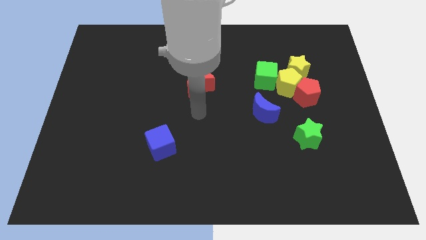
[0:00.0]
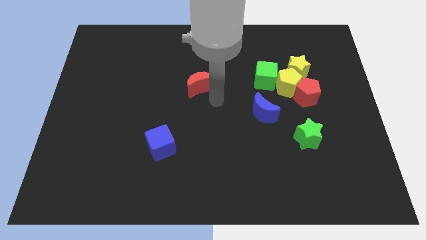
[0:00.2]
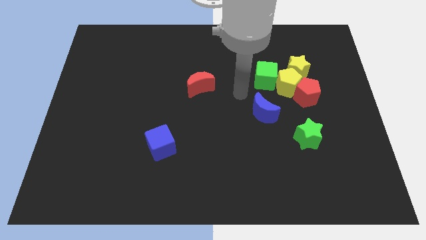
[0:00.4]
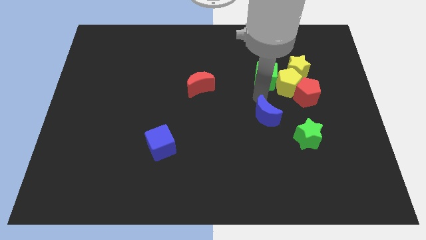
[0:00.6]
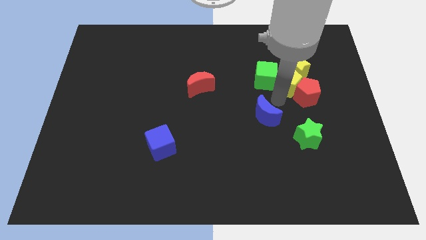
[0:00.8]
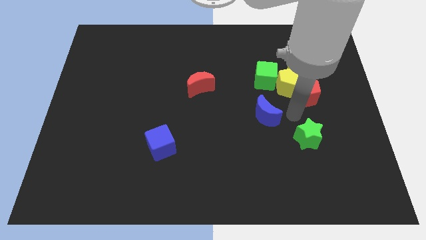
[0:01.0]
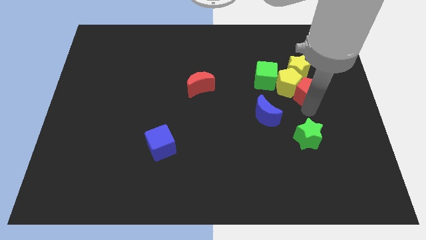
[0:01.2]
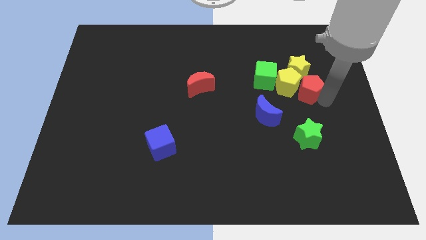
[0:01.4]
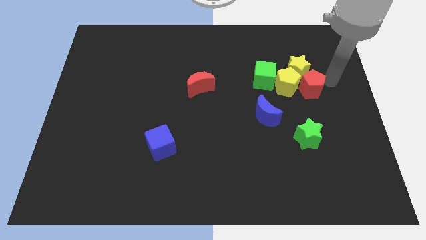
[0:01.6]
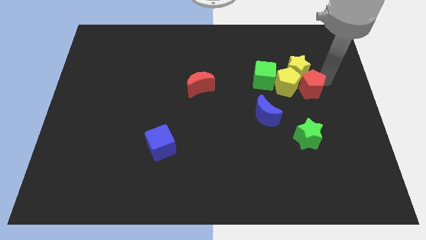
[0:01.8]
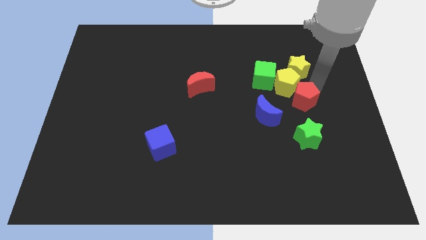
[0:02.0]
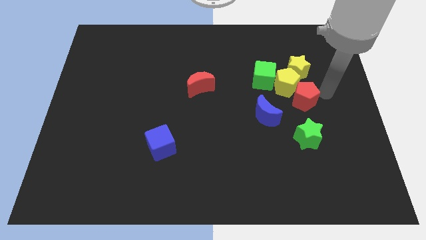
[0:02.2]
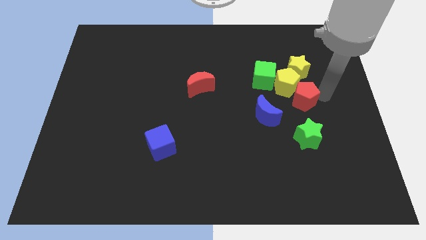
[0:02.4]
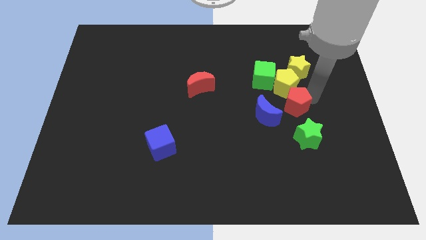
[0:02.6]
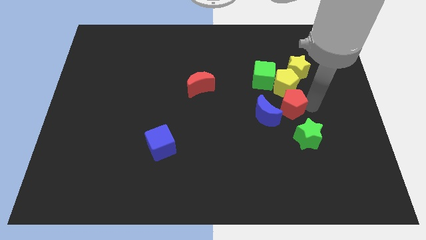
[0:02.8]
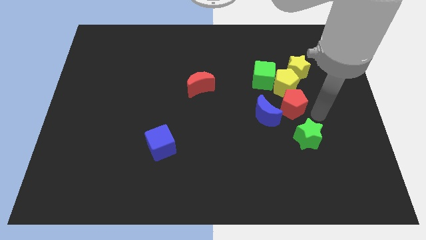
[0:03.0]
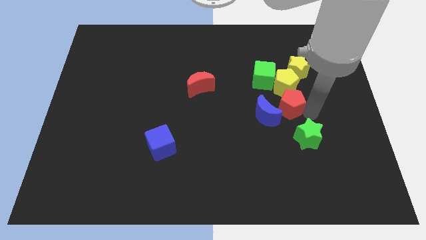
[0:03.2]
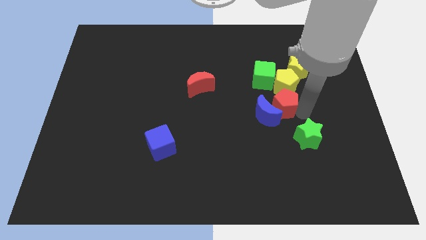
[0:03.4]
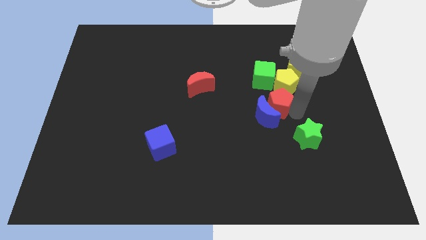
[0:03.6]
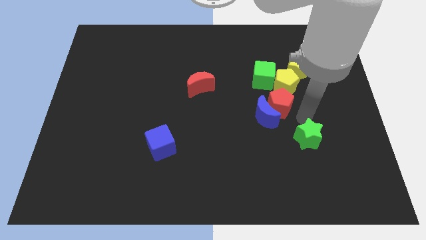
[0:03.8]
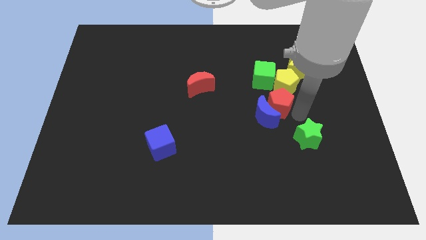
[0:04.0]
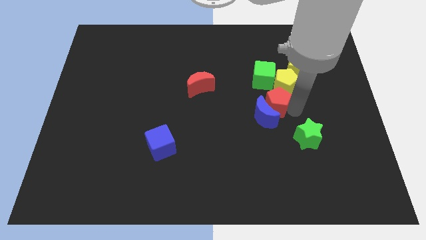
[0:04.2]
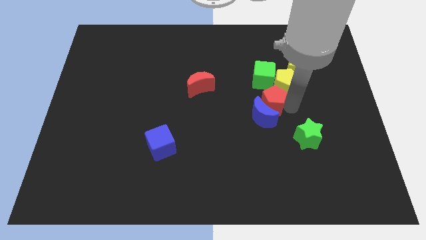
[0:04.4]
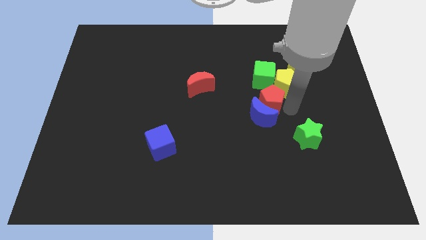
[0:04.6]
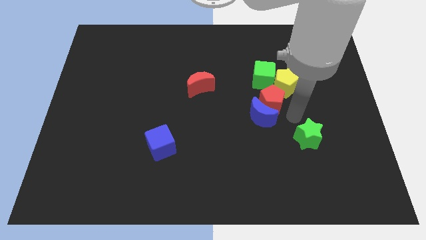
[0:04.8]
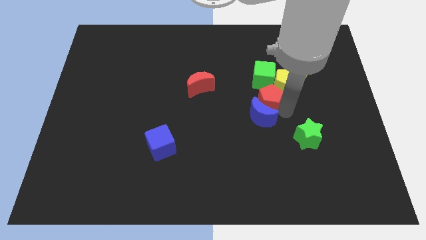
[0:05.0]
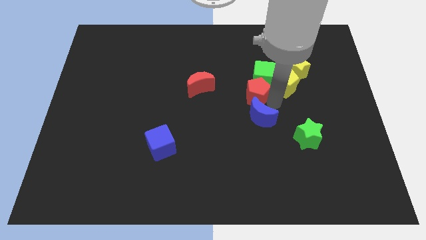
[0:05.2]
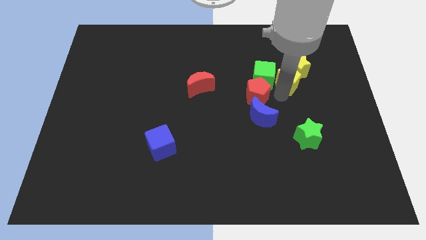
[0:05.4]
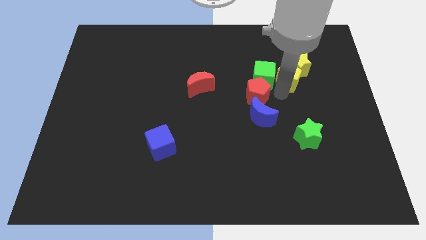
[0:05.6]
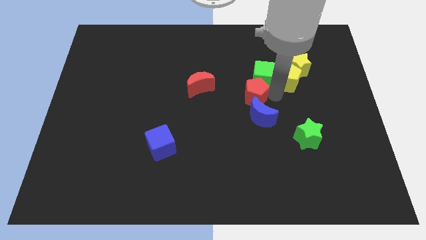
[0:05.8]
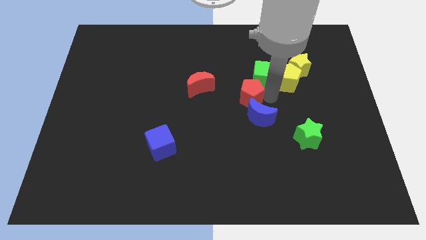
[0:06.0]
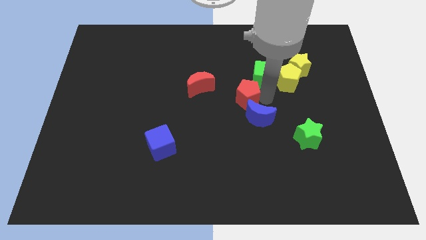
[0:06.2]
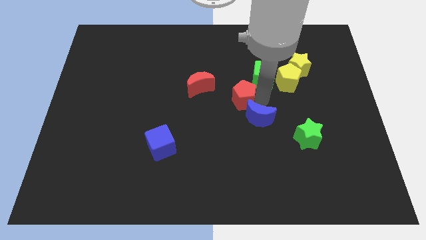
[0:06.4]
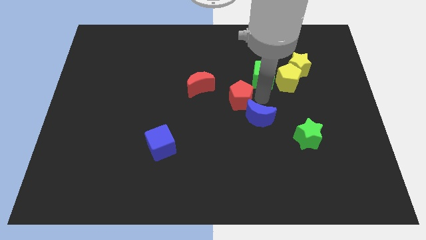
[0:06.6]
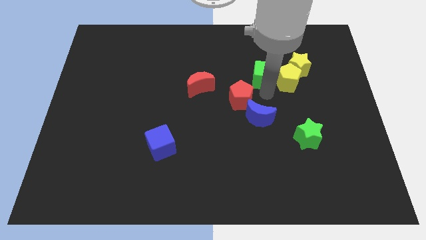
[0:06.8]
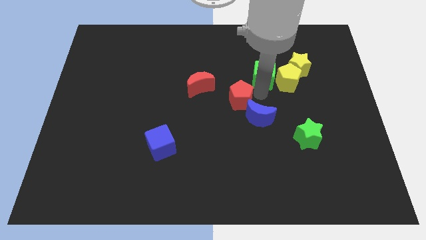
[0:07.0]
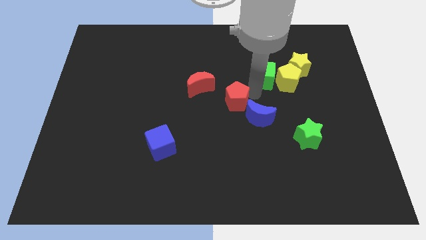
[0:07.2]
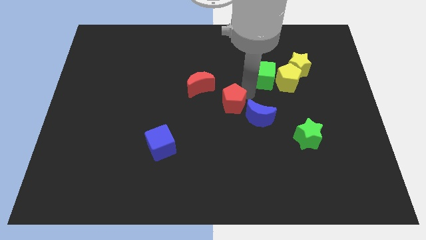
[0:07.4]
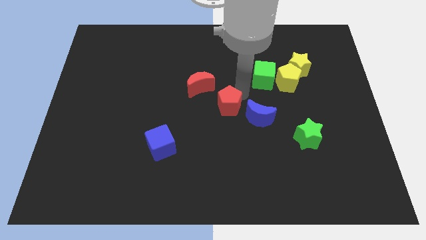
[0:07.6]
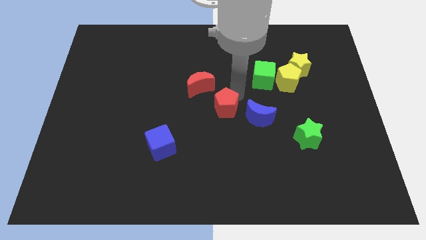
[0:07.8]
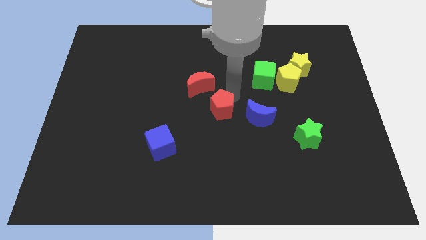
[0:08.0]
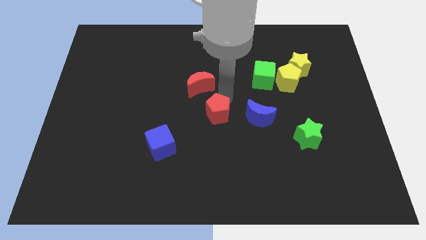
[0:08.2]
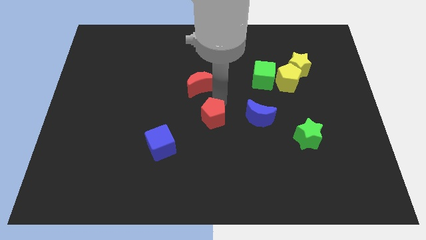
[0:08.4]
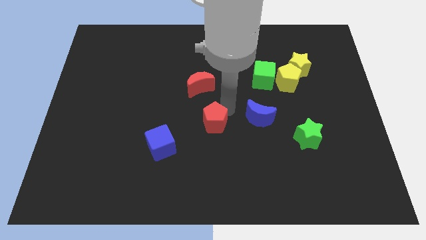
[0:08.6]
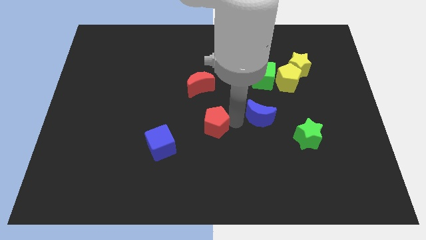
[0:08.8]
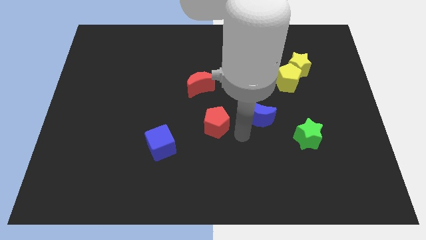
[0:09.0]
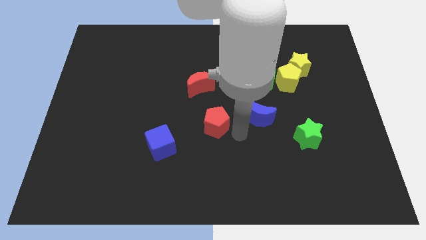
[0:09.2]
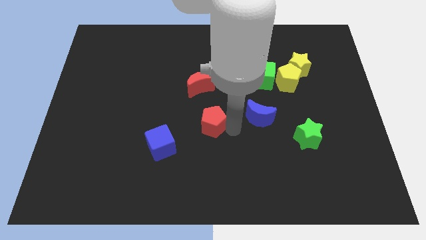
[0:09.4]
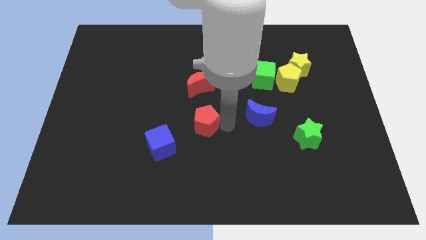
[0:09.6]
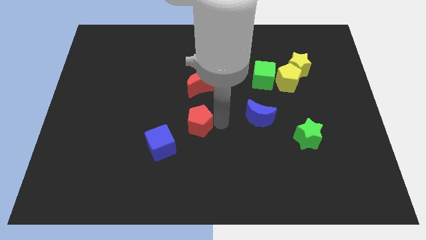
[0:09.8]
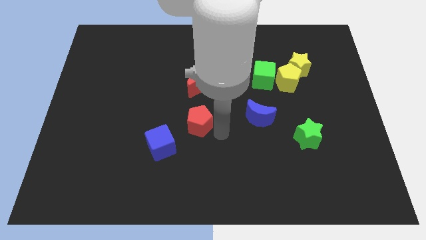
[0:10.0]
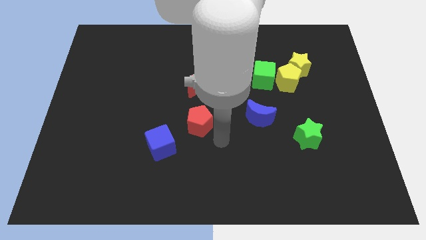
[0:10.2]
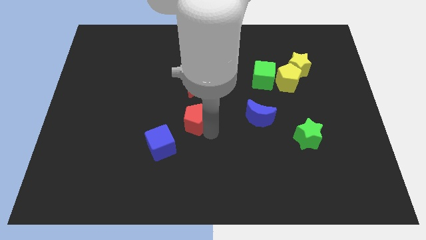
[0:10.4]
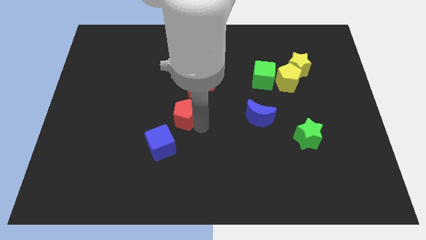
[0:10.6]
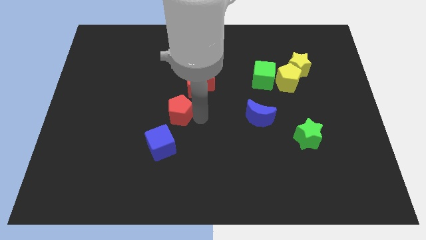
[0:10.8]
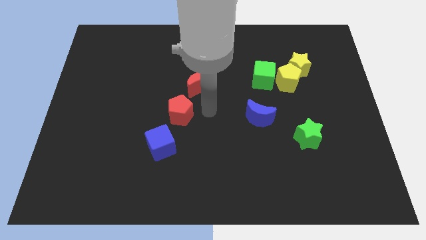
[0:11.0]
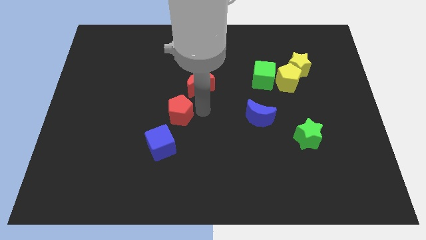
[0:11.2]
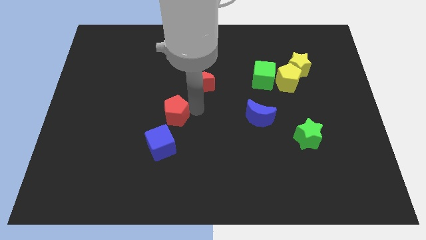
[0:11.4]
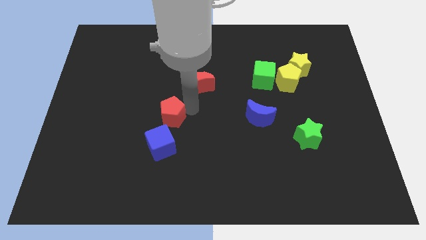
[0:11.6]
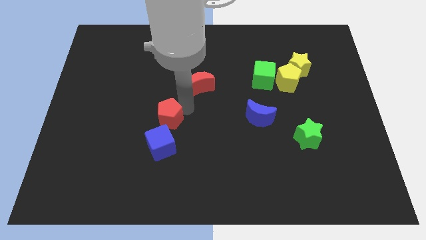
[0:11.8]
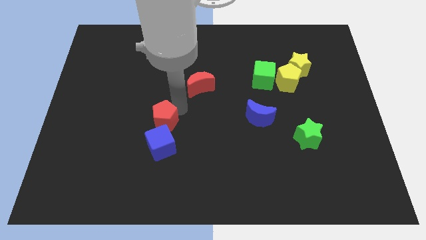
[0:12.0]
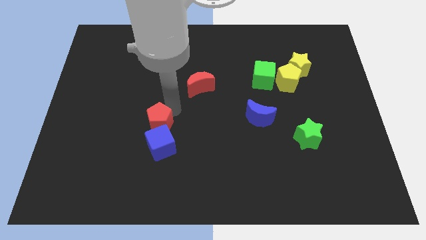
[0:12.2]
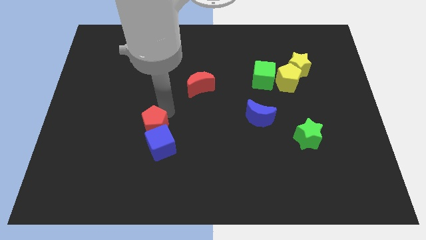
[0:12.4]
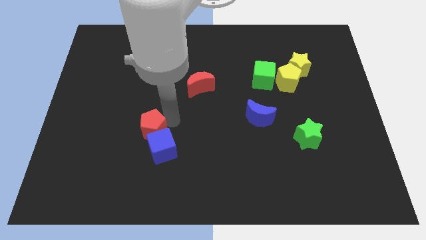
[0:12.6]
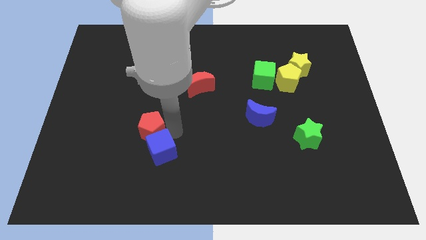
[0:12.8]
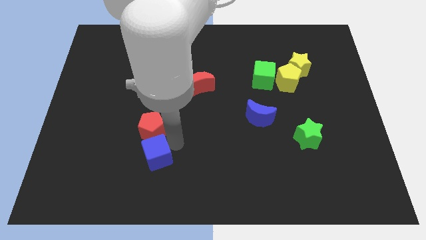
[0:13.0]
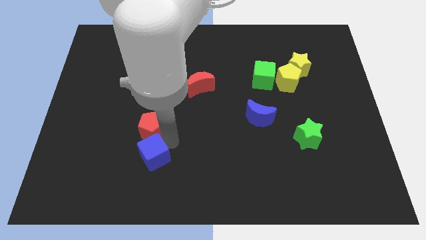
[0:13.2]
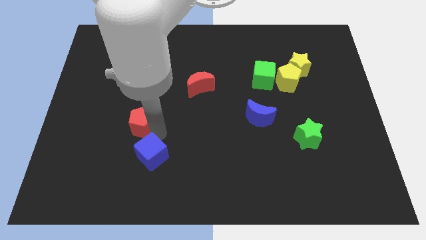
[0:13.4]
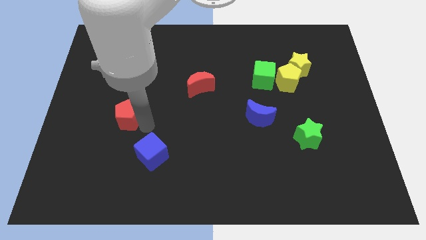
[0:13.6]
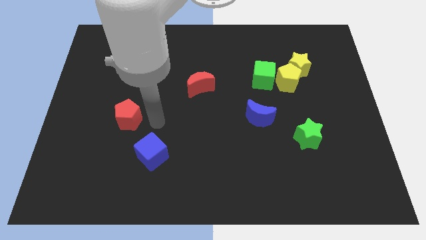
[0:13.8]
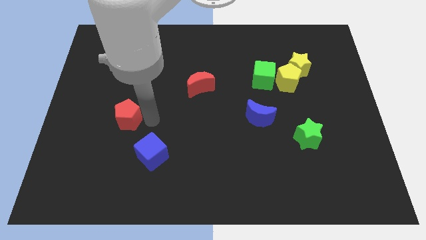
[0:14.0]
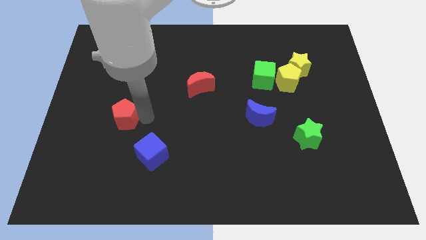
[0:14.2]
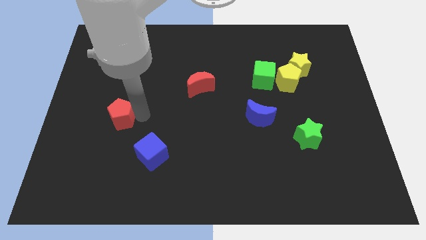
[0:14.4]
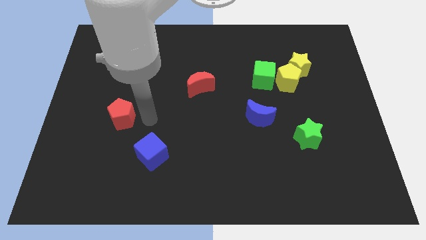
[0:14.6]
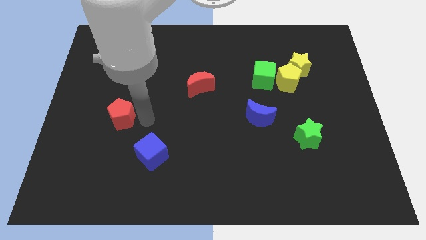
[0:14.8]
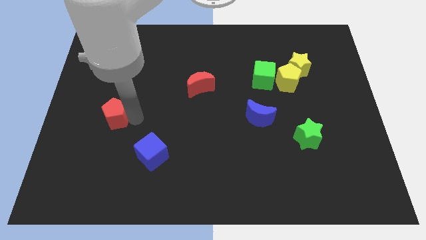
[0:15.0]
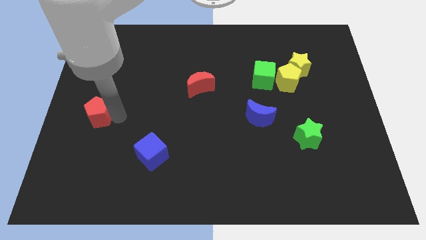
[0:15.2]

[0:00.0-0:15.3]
push the red pentagon to the left side
